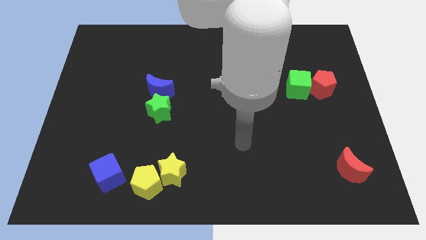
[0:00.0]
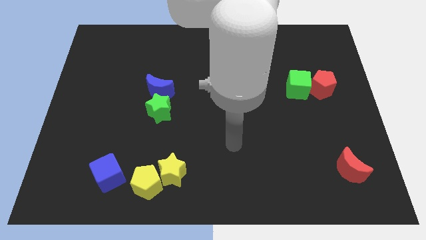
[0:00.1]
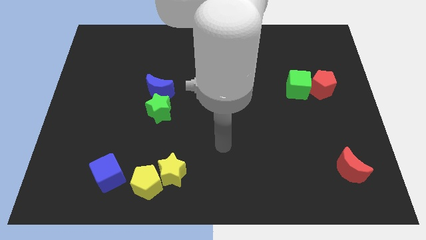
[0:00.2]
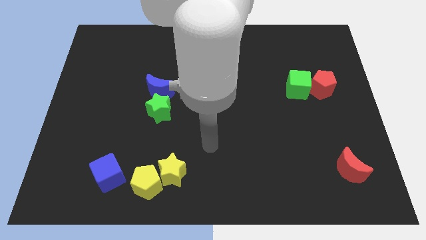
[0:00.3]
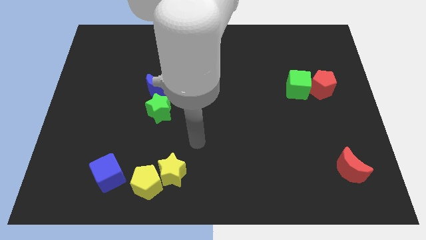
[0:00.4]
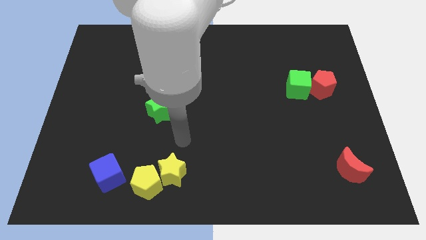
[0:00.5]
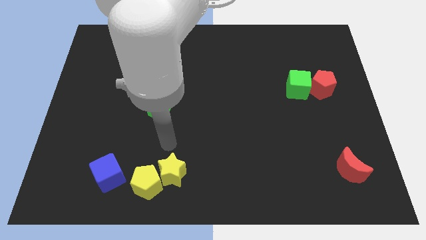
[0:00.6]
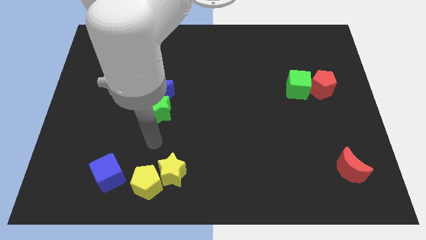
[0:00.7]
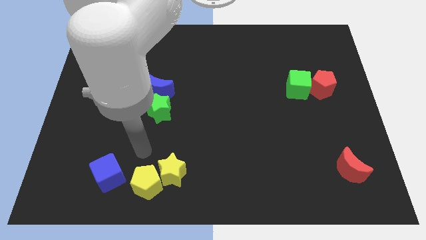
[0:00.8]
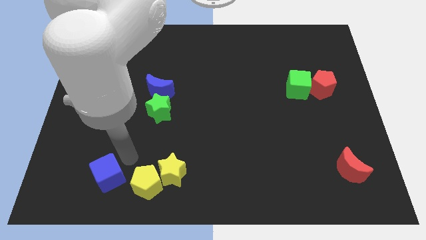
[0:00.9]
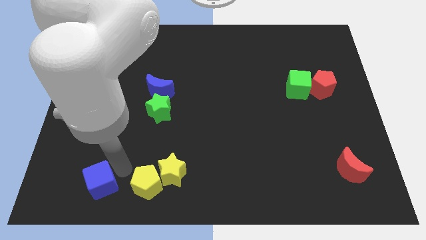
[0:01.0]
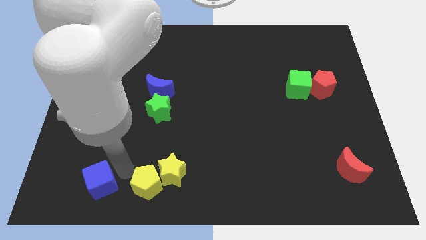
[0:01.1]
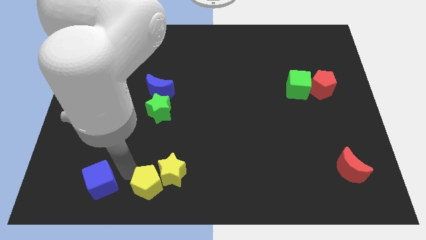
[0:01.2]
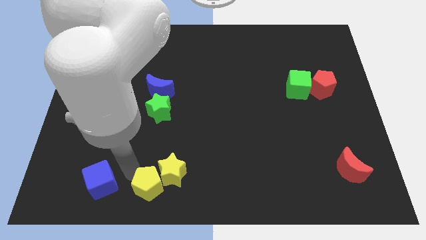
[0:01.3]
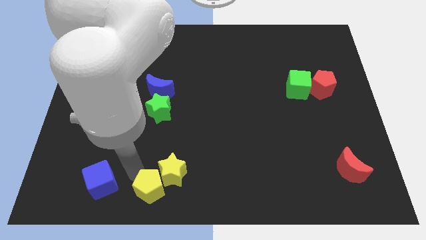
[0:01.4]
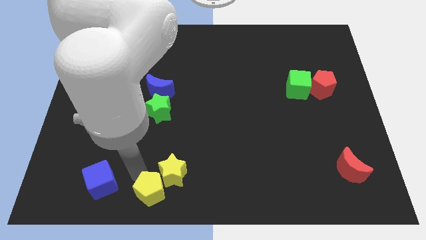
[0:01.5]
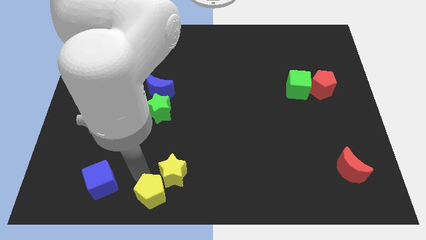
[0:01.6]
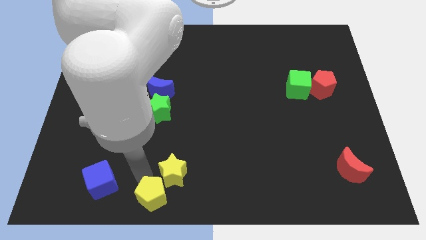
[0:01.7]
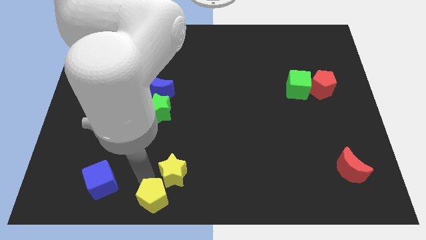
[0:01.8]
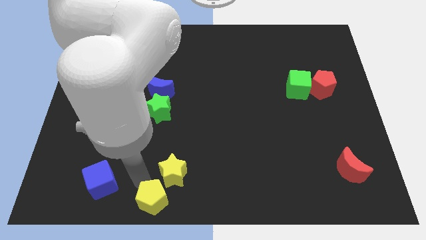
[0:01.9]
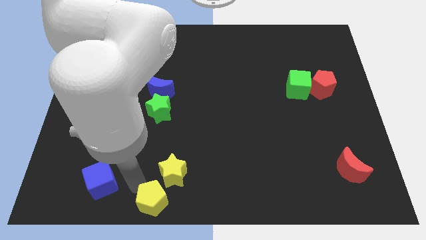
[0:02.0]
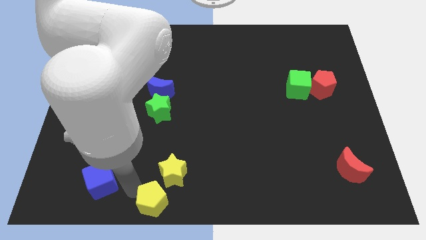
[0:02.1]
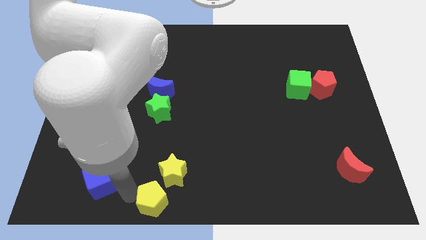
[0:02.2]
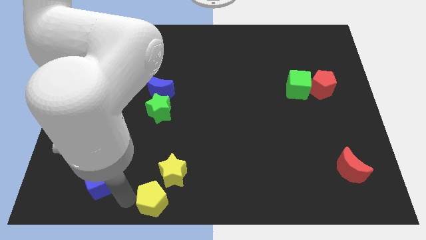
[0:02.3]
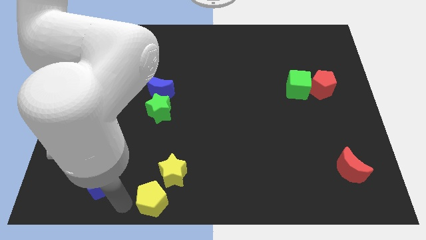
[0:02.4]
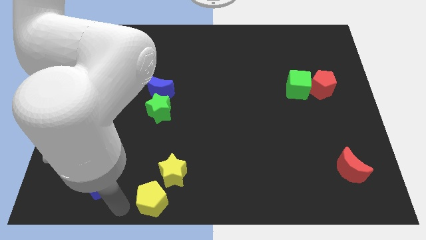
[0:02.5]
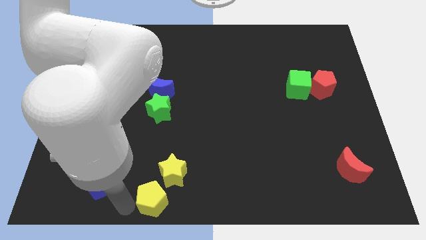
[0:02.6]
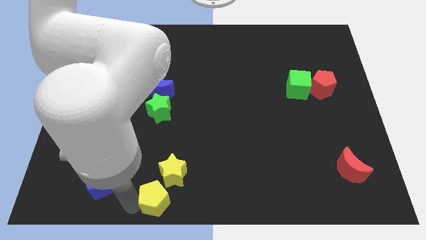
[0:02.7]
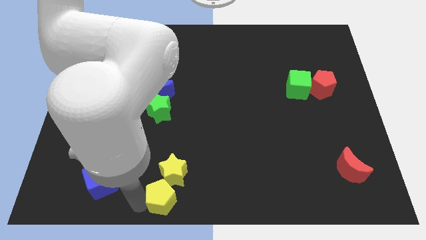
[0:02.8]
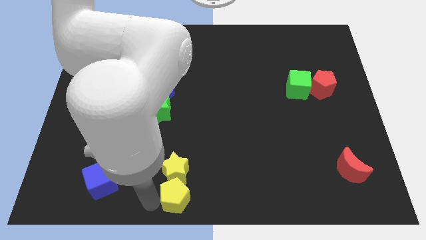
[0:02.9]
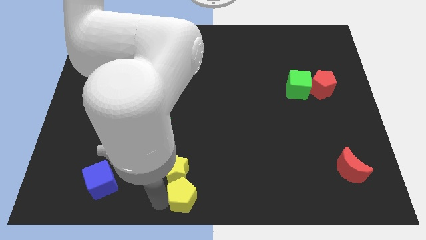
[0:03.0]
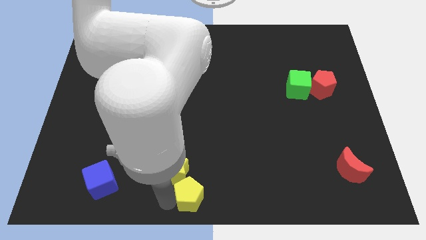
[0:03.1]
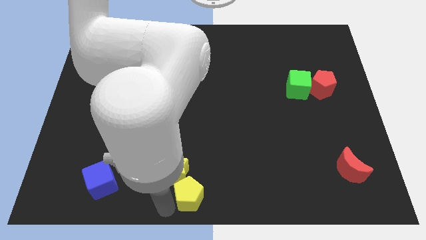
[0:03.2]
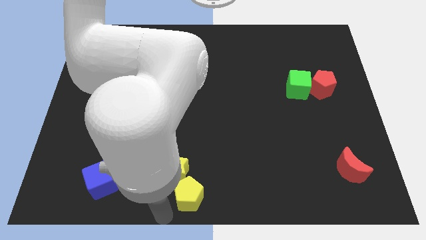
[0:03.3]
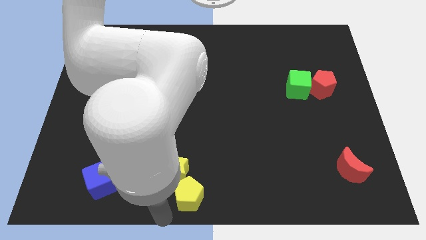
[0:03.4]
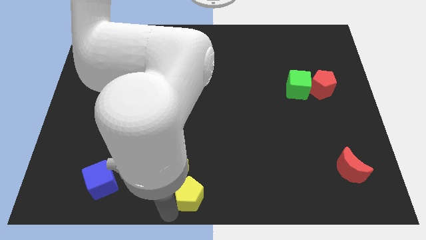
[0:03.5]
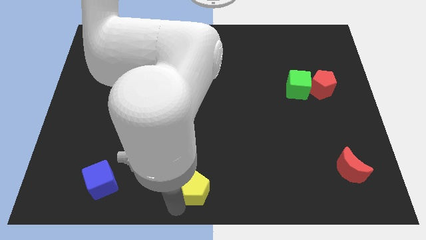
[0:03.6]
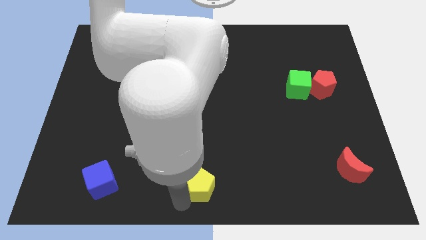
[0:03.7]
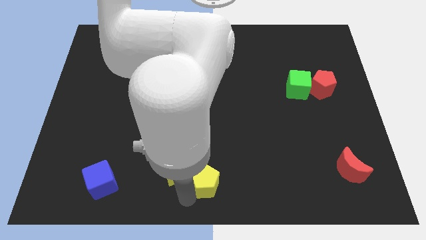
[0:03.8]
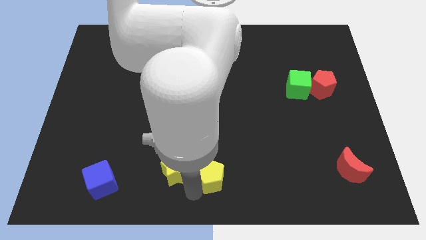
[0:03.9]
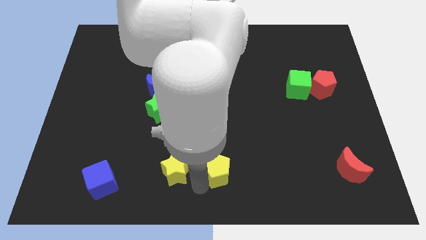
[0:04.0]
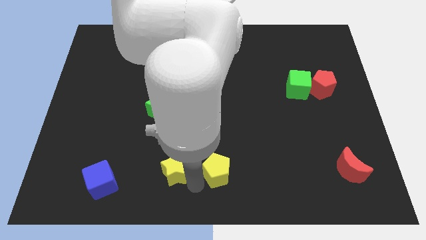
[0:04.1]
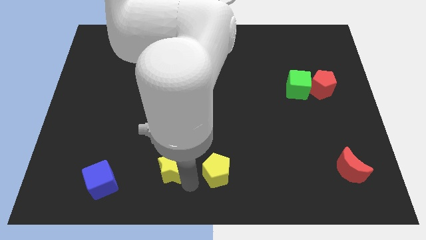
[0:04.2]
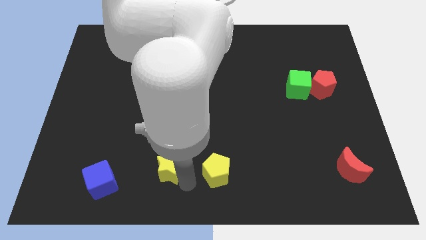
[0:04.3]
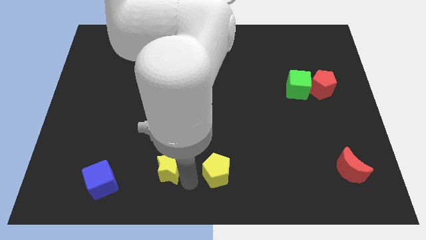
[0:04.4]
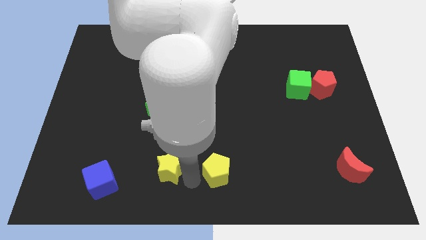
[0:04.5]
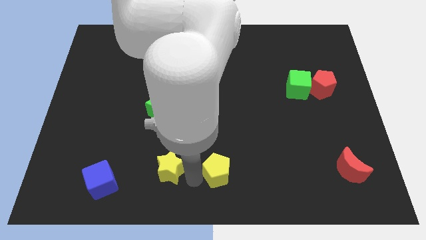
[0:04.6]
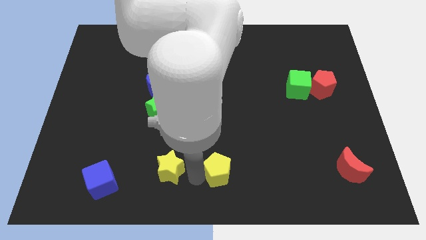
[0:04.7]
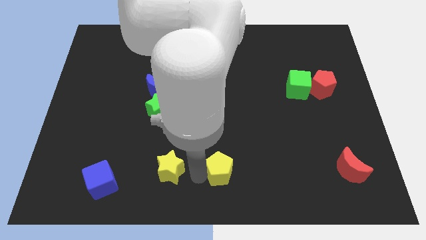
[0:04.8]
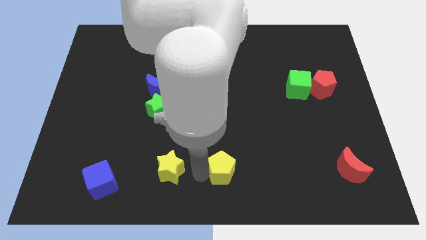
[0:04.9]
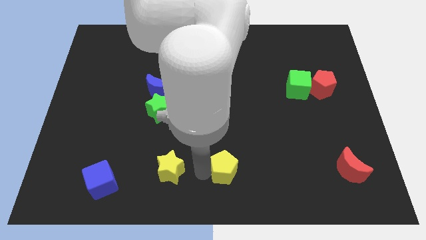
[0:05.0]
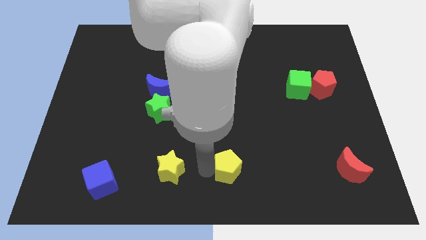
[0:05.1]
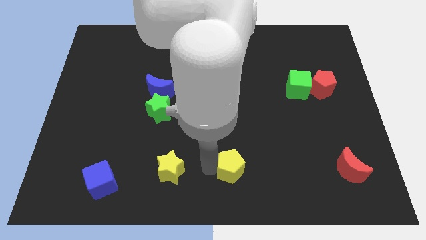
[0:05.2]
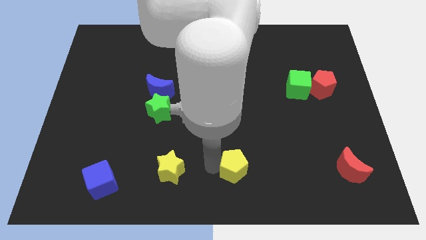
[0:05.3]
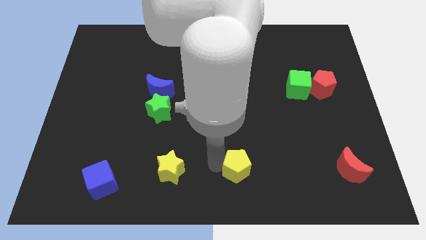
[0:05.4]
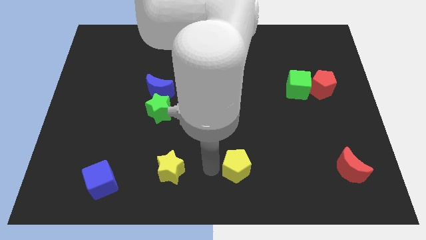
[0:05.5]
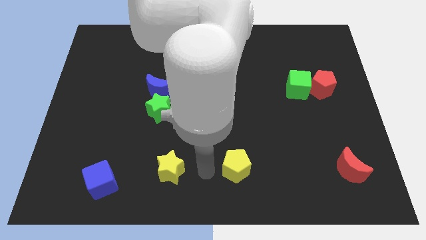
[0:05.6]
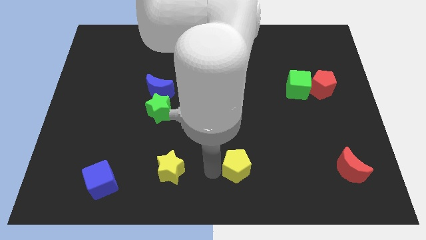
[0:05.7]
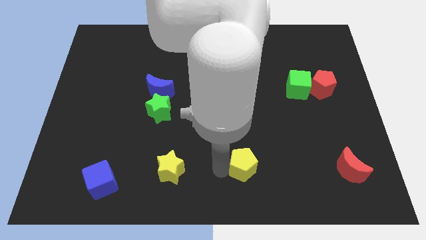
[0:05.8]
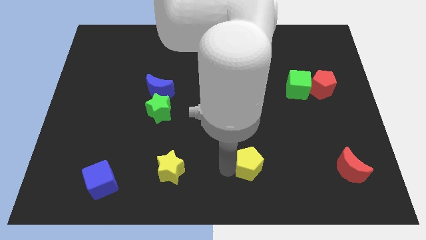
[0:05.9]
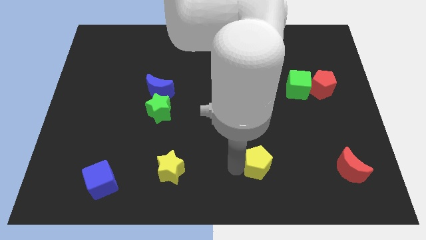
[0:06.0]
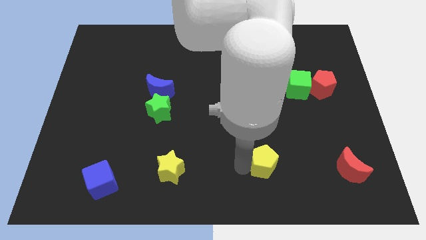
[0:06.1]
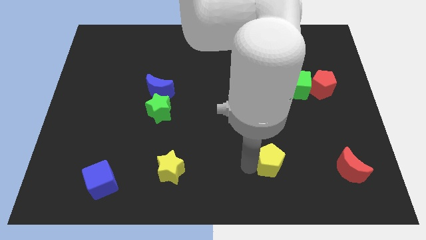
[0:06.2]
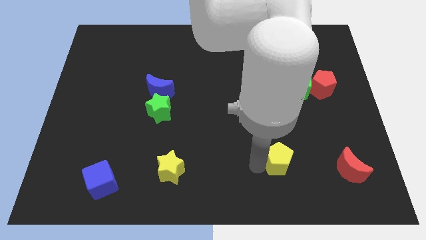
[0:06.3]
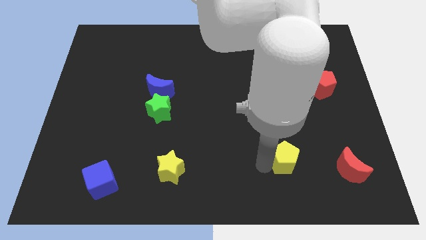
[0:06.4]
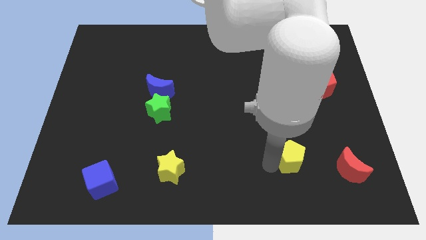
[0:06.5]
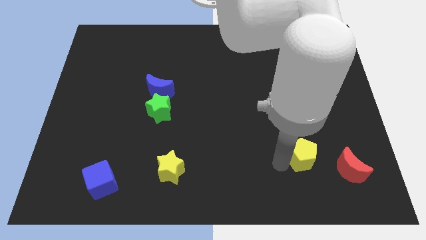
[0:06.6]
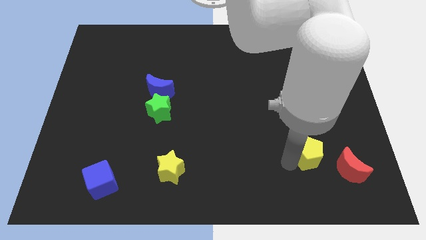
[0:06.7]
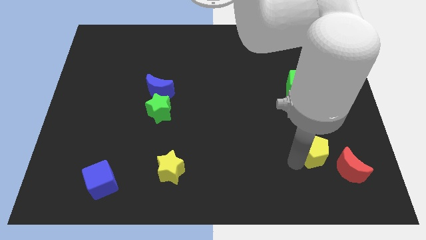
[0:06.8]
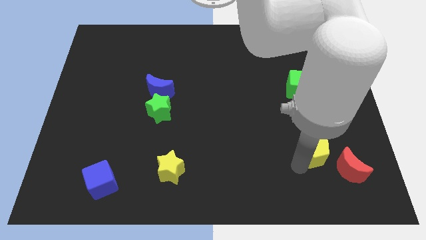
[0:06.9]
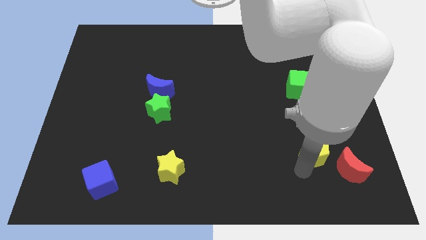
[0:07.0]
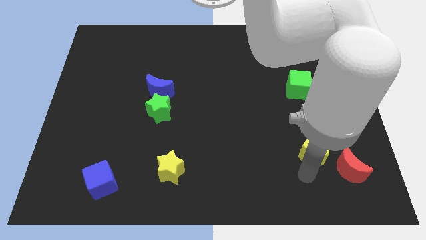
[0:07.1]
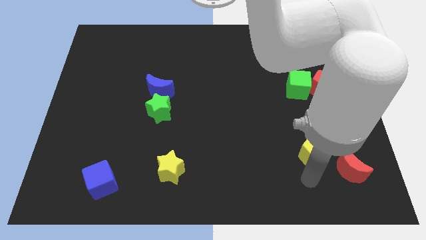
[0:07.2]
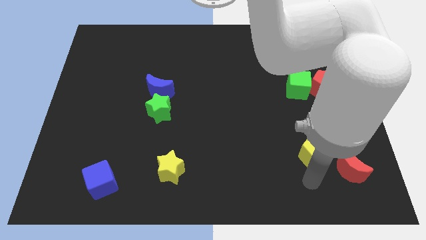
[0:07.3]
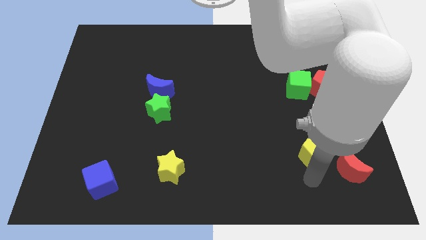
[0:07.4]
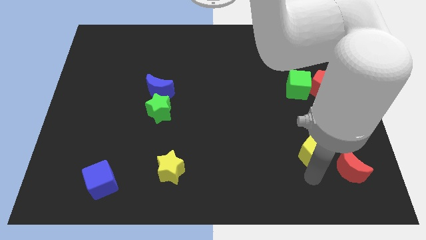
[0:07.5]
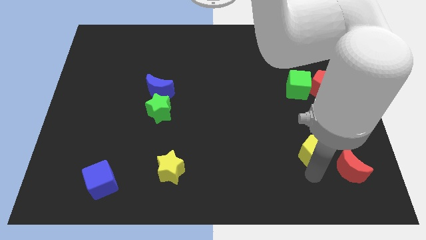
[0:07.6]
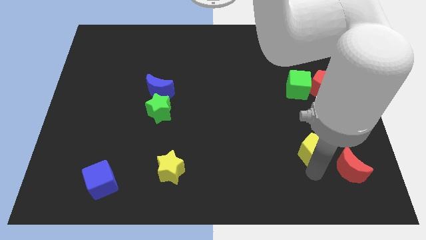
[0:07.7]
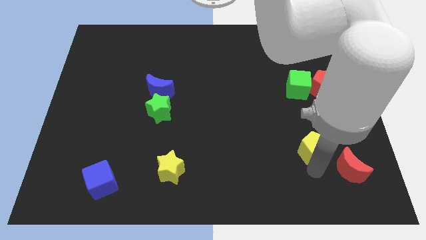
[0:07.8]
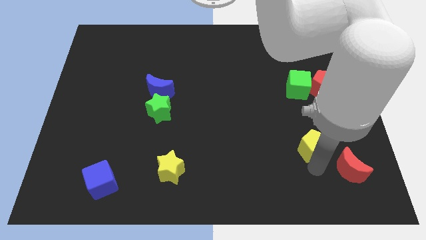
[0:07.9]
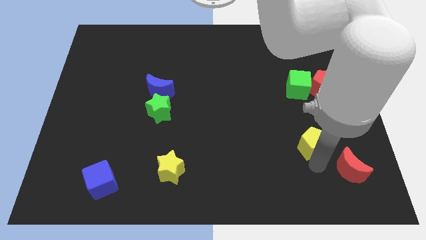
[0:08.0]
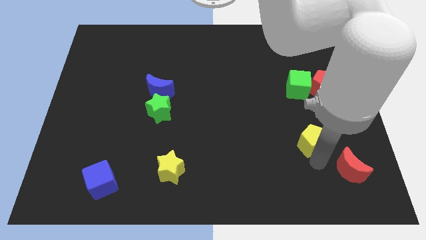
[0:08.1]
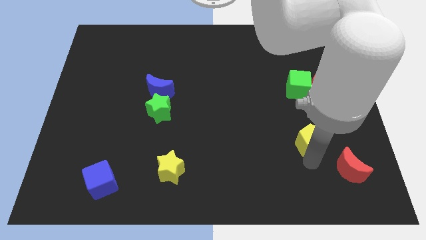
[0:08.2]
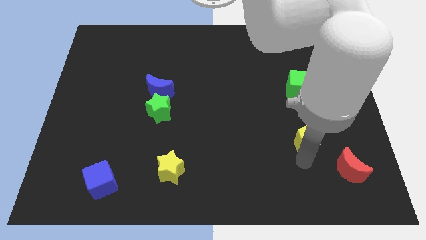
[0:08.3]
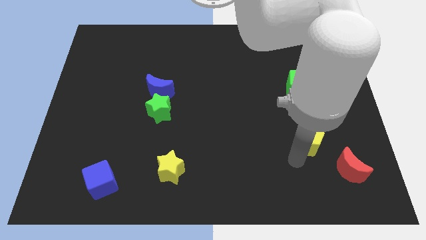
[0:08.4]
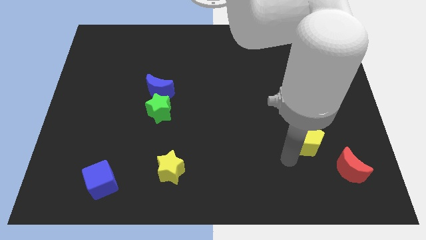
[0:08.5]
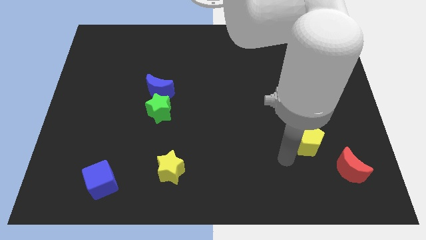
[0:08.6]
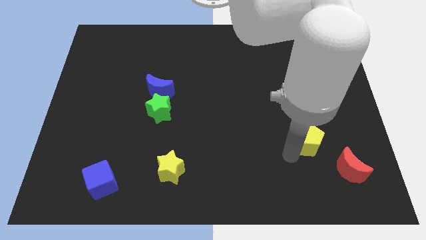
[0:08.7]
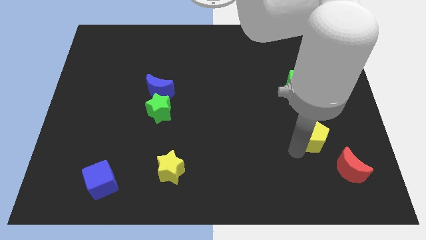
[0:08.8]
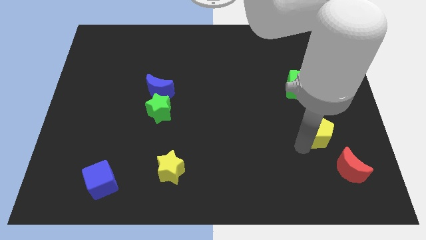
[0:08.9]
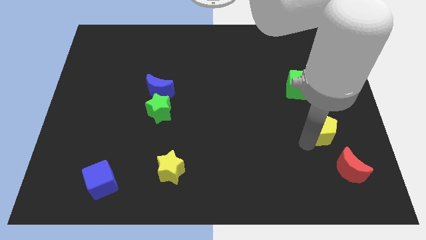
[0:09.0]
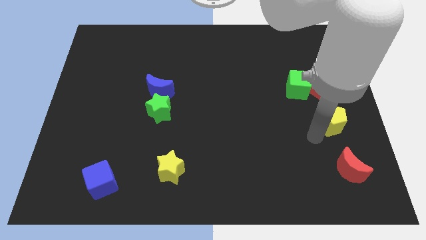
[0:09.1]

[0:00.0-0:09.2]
move the yellow pentagon to the right side of the board
